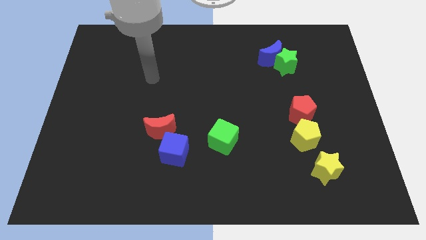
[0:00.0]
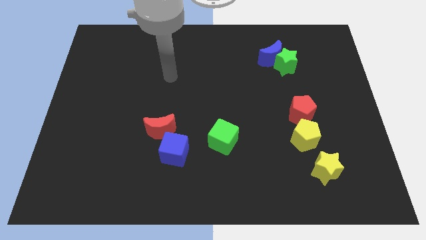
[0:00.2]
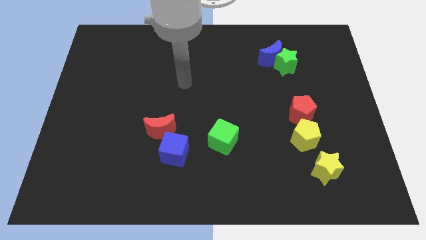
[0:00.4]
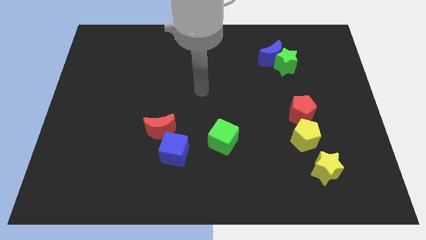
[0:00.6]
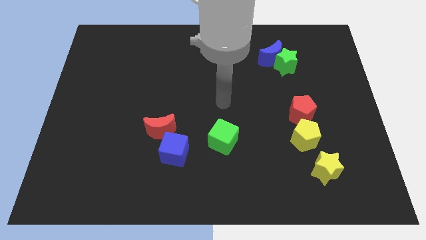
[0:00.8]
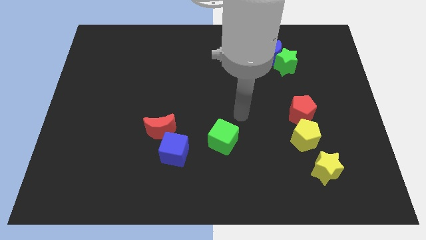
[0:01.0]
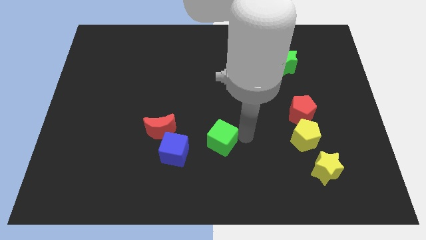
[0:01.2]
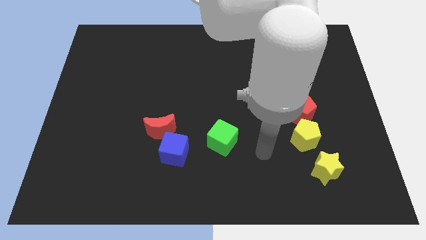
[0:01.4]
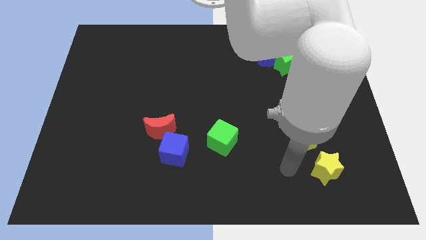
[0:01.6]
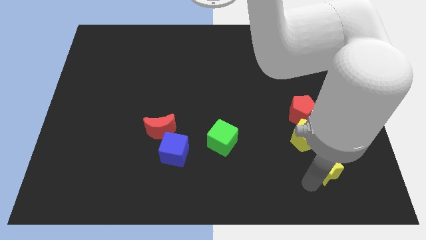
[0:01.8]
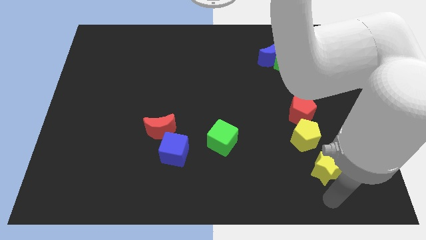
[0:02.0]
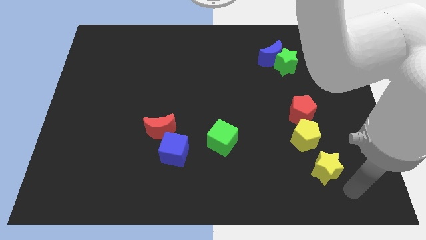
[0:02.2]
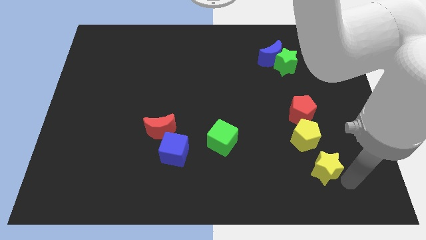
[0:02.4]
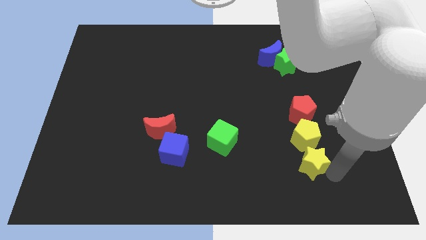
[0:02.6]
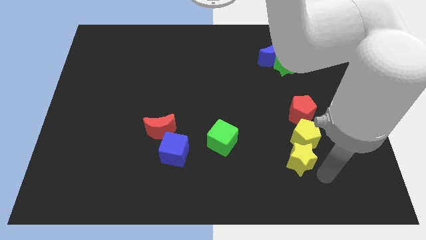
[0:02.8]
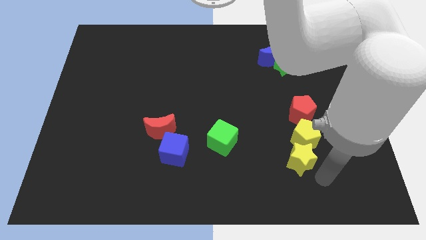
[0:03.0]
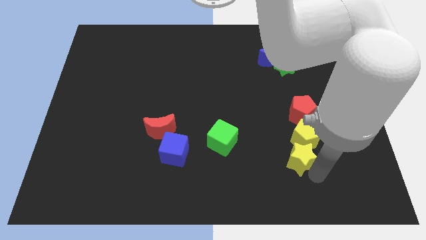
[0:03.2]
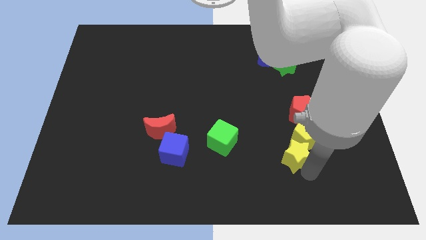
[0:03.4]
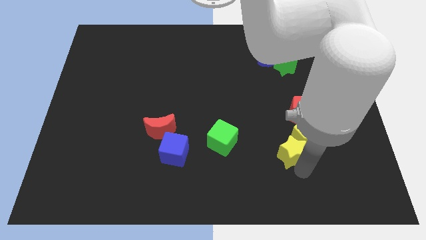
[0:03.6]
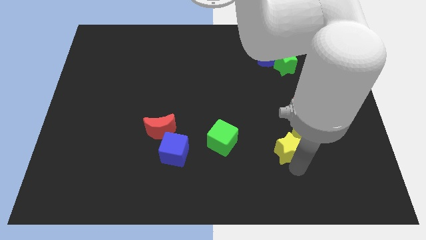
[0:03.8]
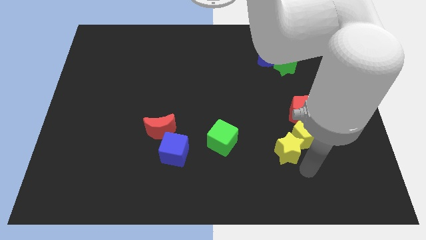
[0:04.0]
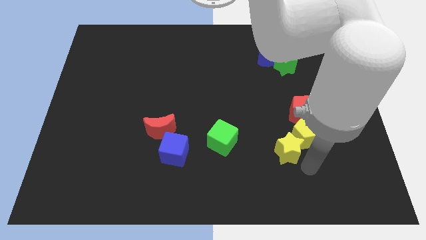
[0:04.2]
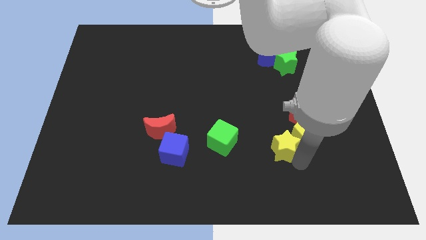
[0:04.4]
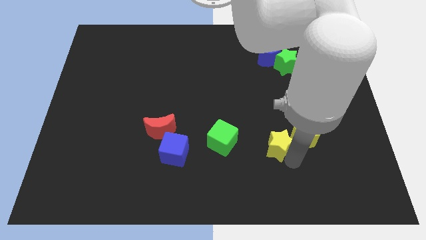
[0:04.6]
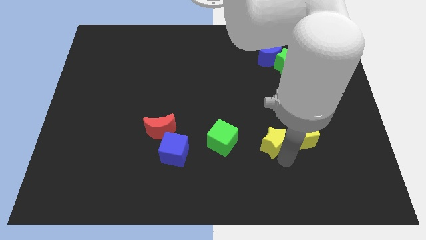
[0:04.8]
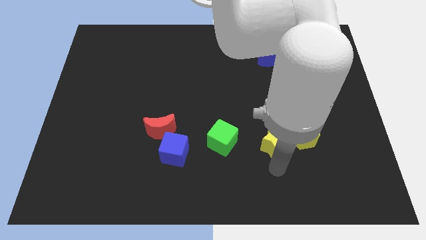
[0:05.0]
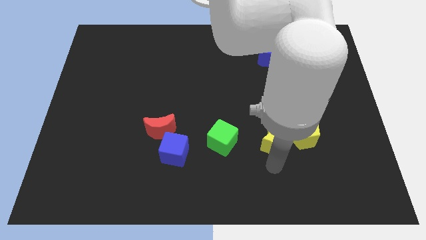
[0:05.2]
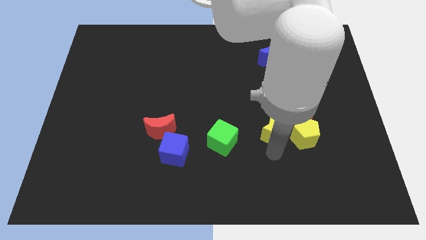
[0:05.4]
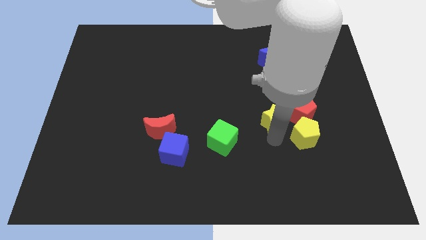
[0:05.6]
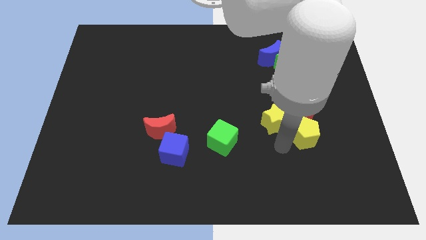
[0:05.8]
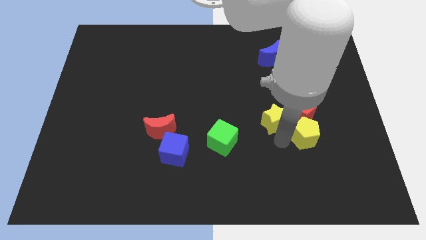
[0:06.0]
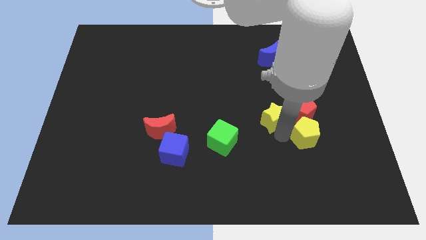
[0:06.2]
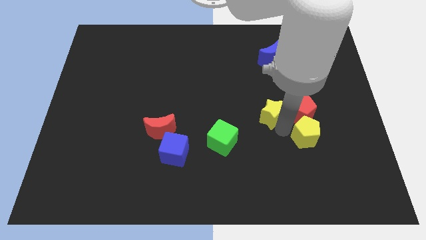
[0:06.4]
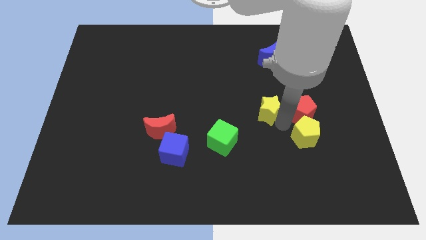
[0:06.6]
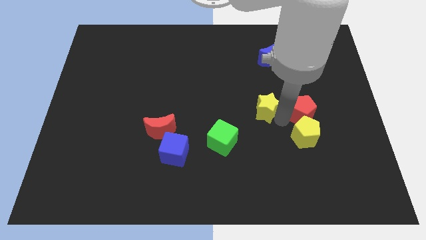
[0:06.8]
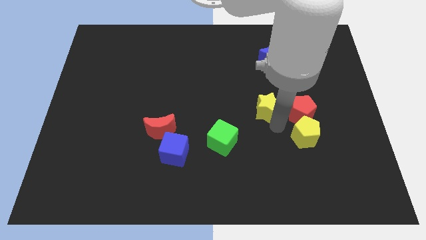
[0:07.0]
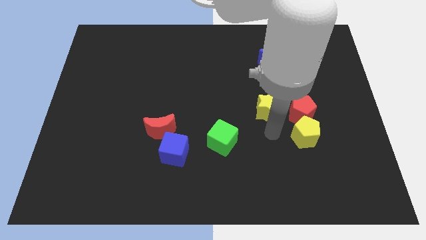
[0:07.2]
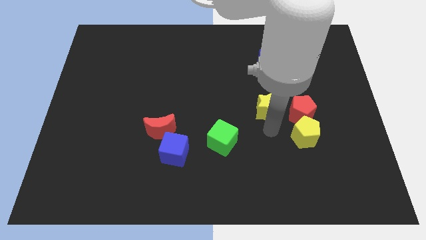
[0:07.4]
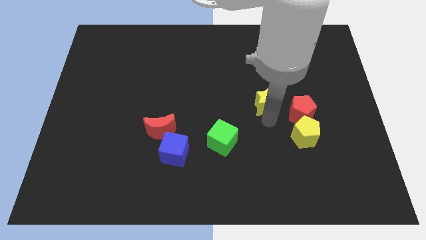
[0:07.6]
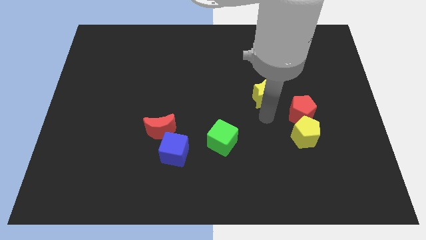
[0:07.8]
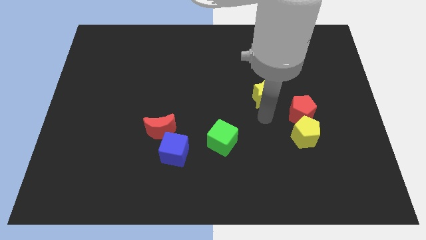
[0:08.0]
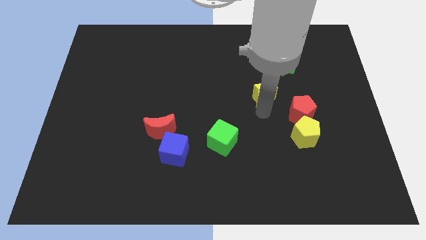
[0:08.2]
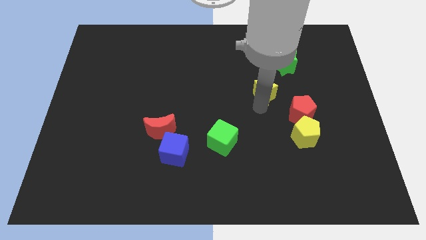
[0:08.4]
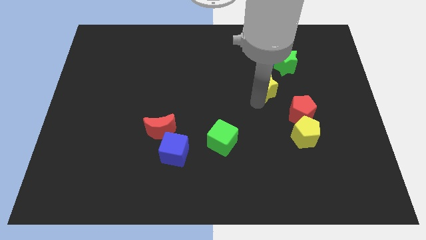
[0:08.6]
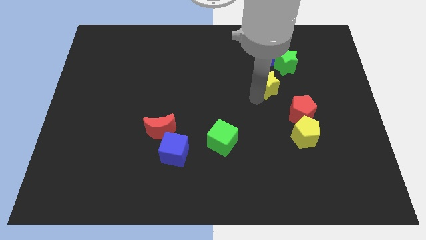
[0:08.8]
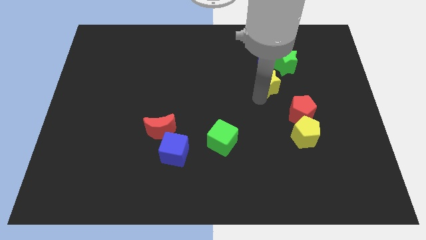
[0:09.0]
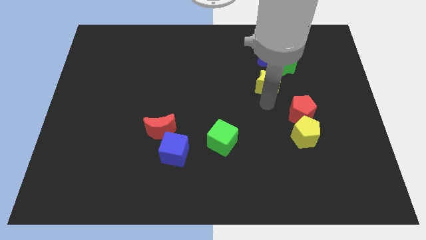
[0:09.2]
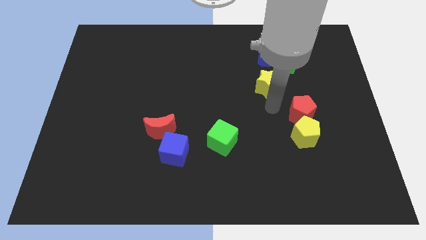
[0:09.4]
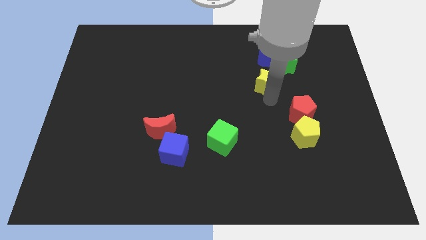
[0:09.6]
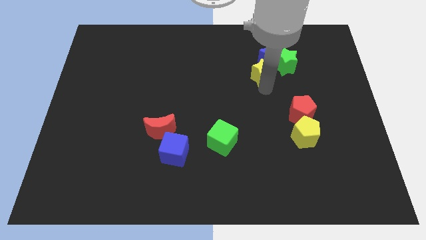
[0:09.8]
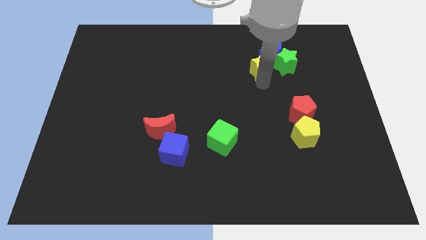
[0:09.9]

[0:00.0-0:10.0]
move the yellow star next to the blue moon

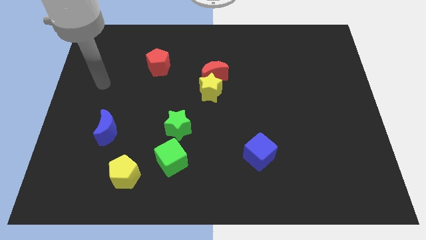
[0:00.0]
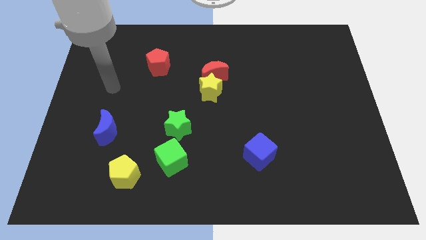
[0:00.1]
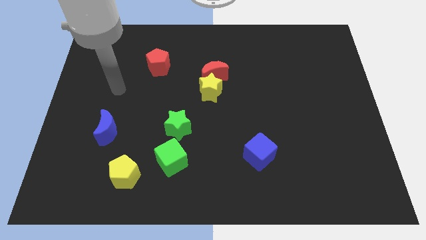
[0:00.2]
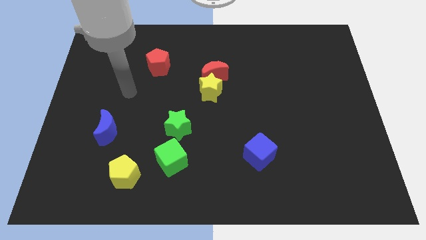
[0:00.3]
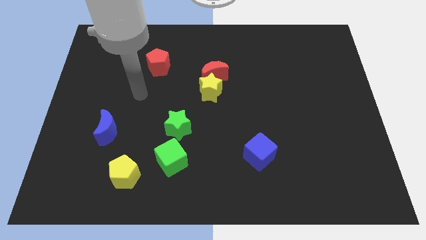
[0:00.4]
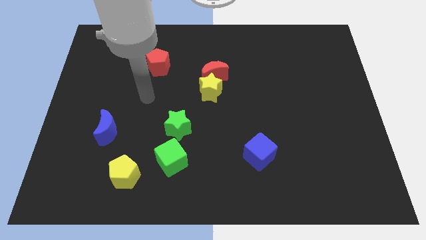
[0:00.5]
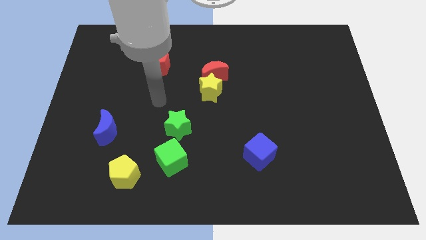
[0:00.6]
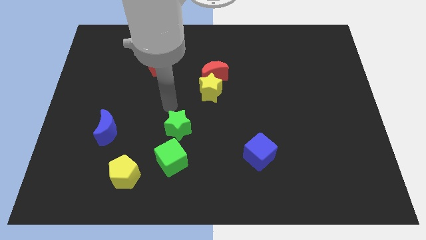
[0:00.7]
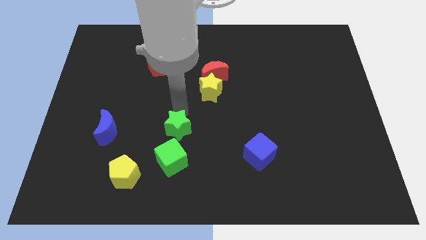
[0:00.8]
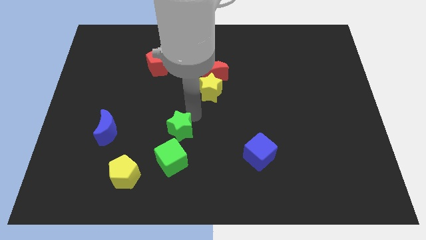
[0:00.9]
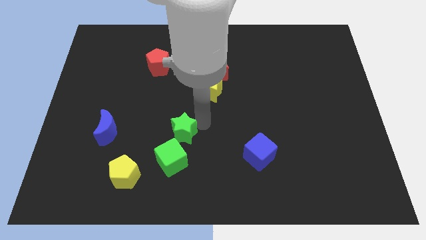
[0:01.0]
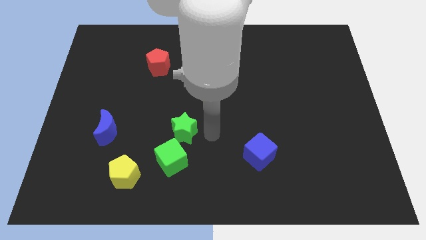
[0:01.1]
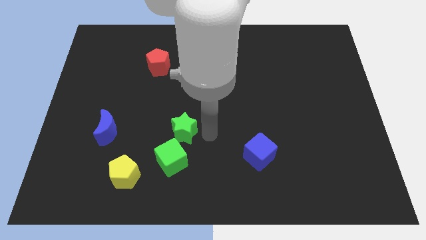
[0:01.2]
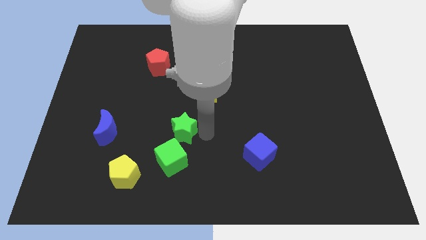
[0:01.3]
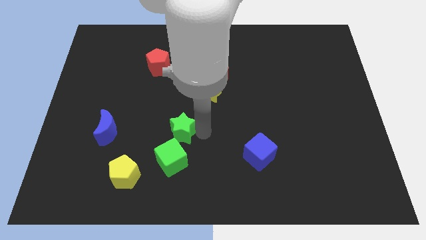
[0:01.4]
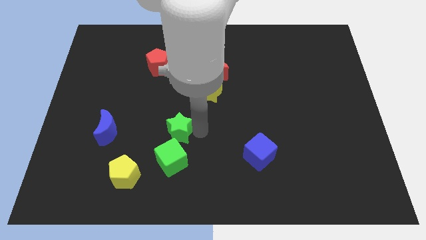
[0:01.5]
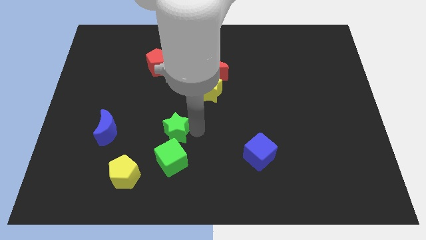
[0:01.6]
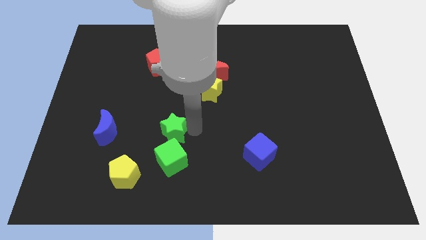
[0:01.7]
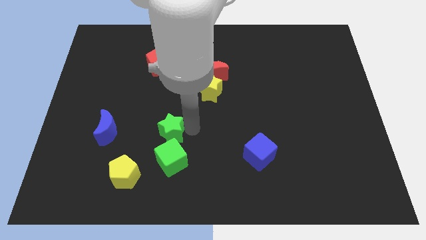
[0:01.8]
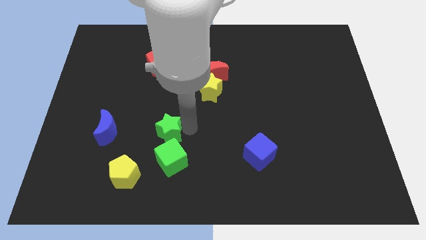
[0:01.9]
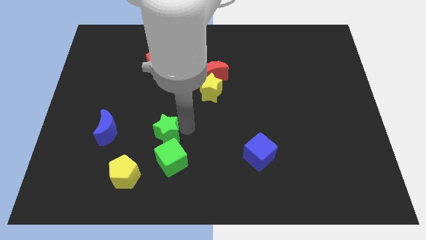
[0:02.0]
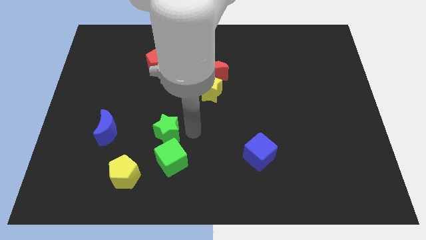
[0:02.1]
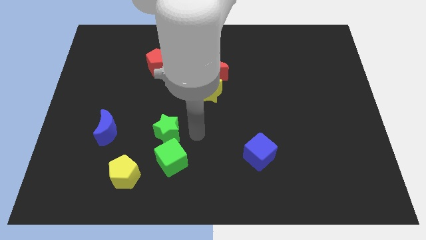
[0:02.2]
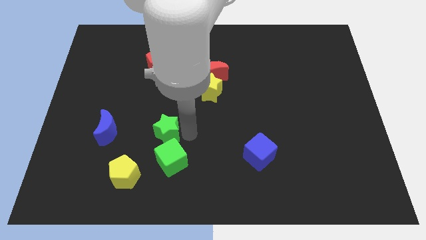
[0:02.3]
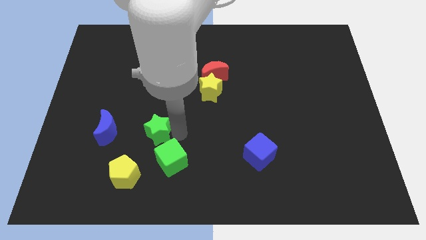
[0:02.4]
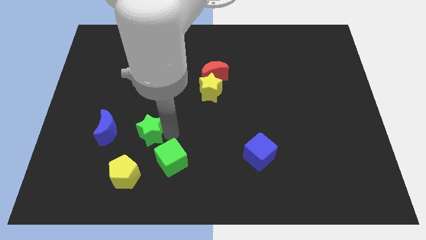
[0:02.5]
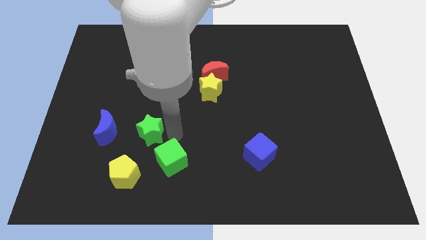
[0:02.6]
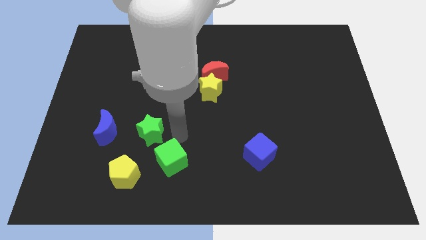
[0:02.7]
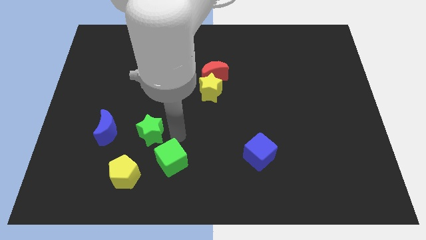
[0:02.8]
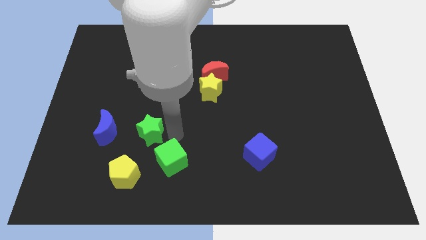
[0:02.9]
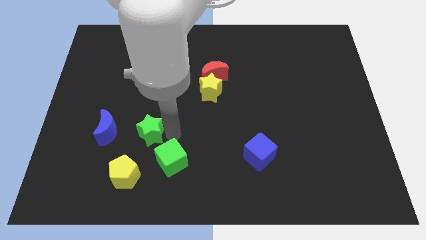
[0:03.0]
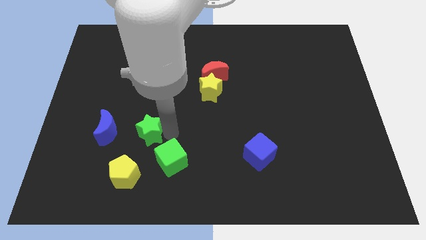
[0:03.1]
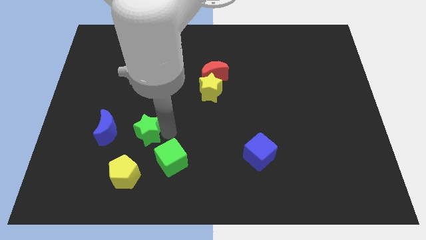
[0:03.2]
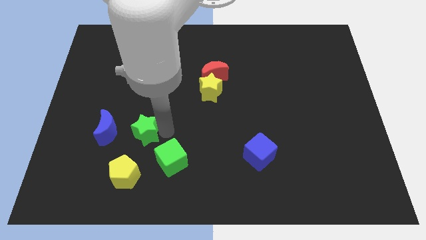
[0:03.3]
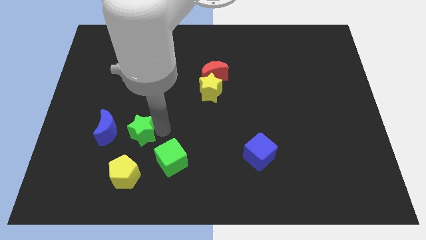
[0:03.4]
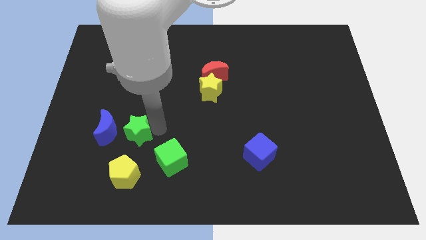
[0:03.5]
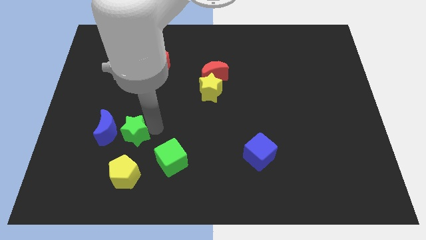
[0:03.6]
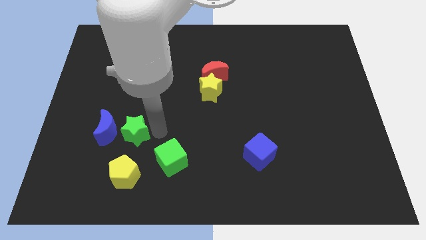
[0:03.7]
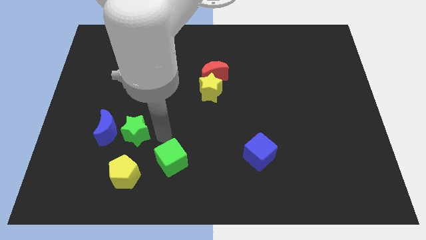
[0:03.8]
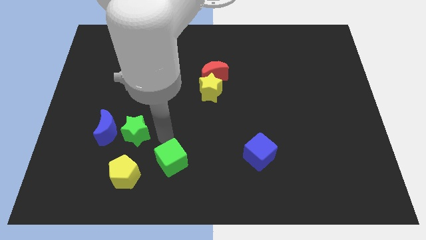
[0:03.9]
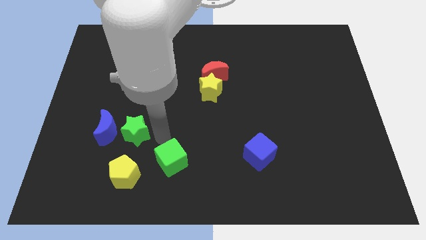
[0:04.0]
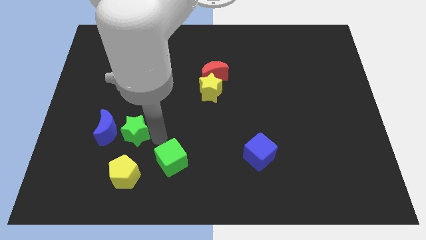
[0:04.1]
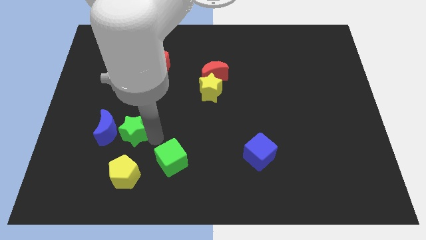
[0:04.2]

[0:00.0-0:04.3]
push the green star next to the blue moon
